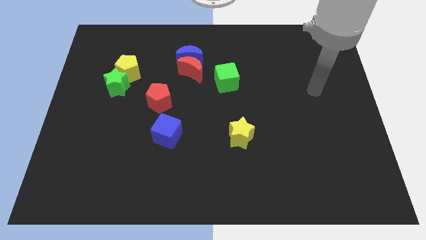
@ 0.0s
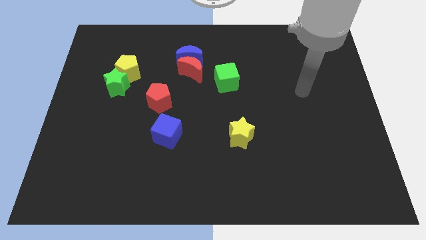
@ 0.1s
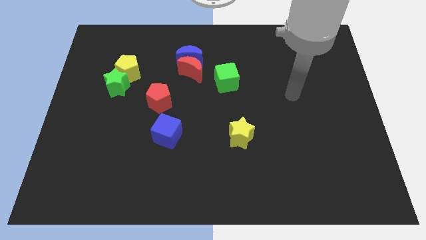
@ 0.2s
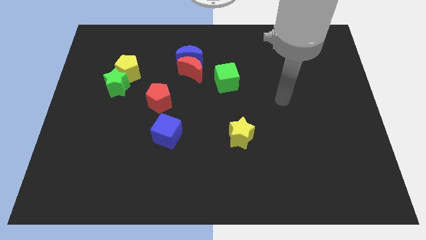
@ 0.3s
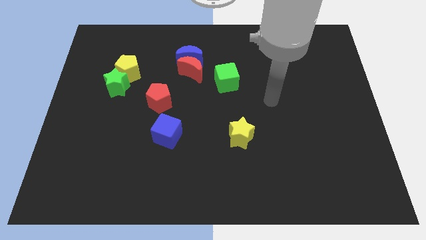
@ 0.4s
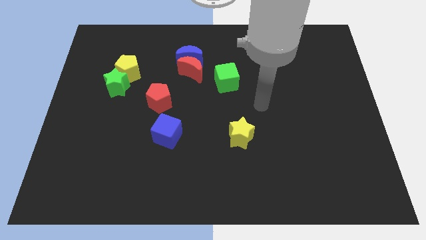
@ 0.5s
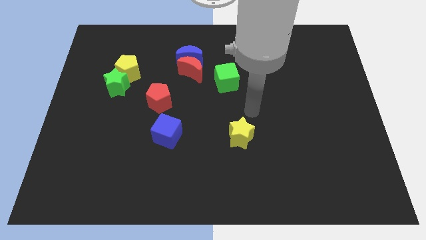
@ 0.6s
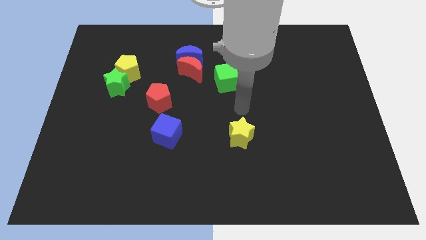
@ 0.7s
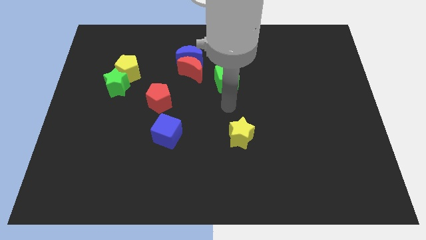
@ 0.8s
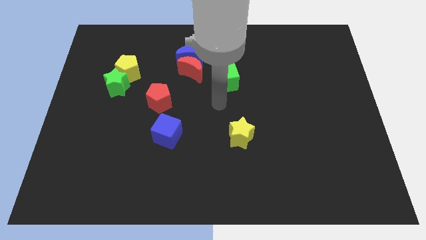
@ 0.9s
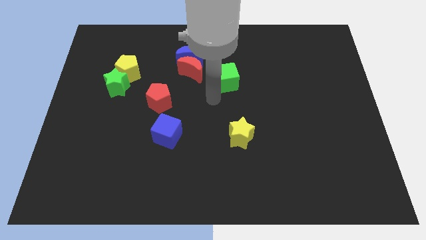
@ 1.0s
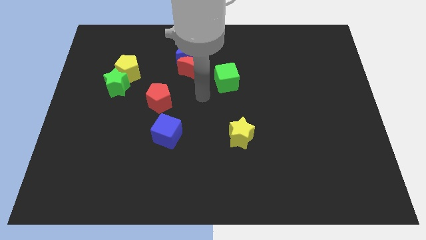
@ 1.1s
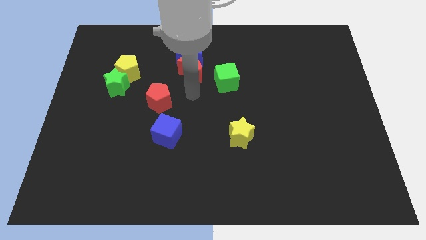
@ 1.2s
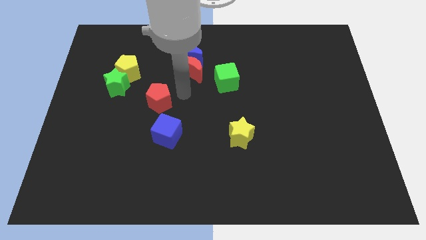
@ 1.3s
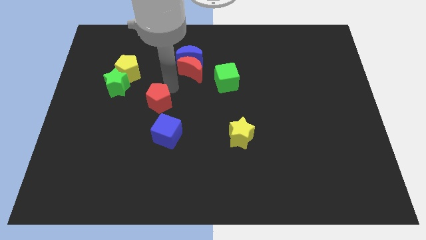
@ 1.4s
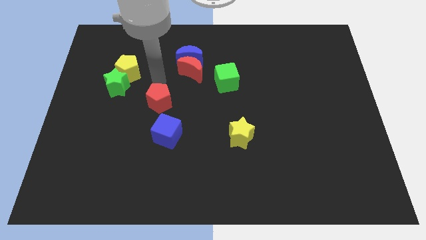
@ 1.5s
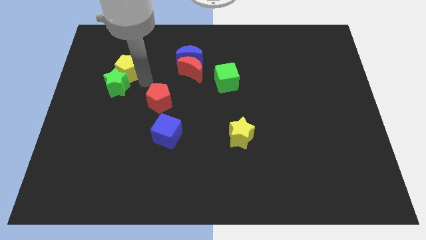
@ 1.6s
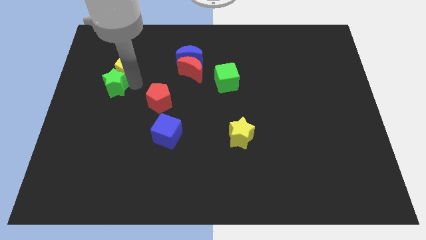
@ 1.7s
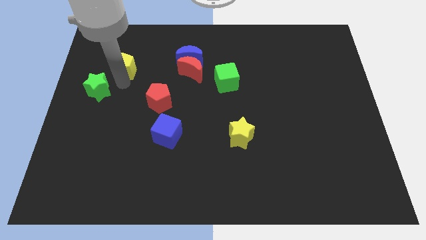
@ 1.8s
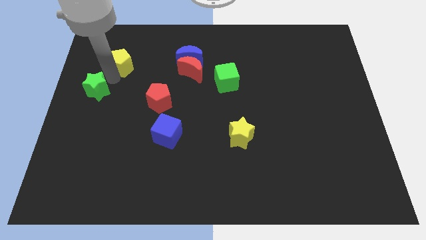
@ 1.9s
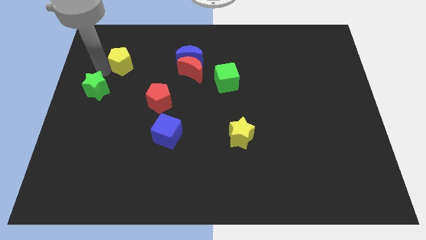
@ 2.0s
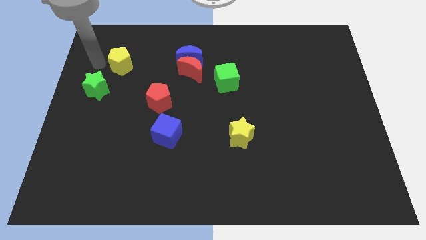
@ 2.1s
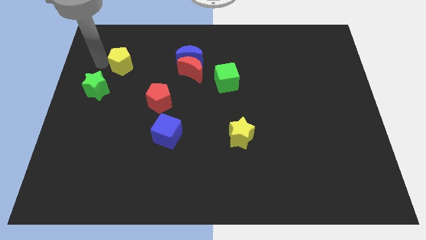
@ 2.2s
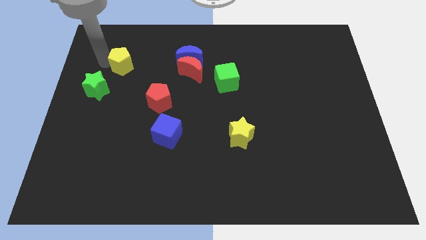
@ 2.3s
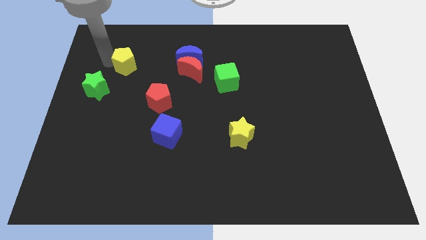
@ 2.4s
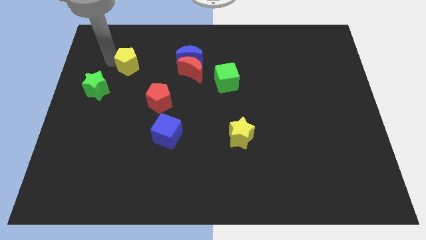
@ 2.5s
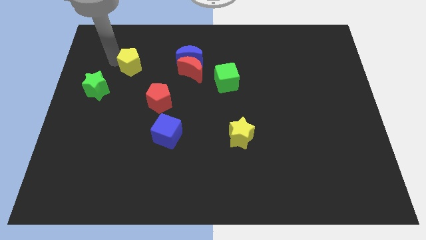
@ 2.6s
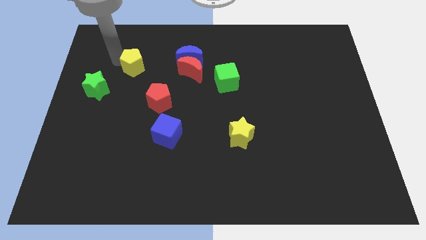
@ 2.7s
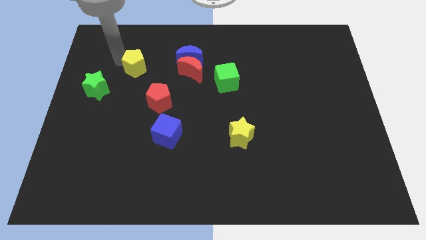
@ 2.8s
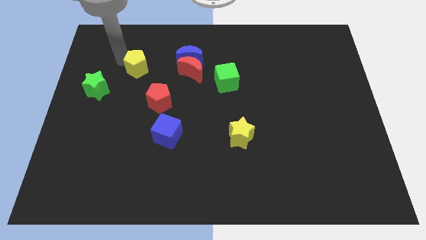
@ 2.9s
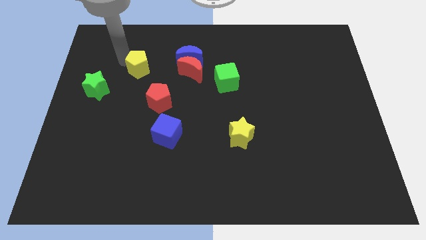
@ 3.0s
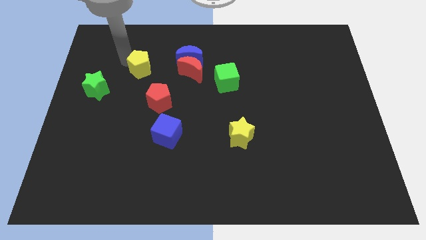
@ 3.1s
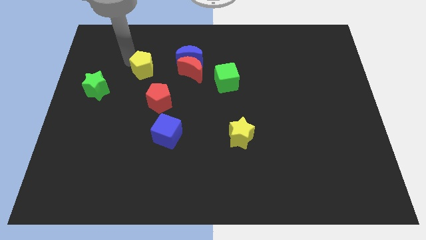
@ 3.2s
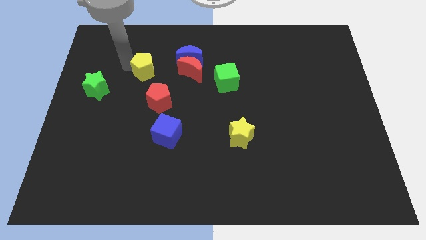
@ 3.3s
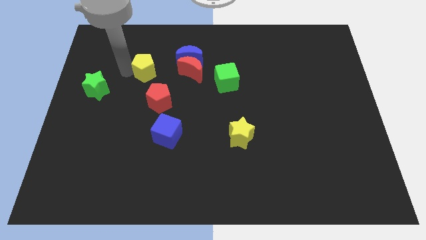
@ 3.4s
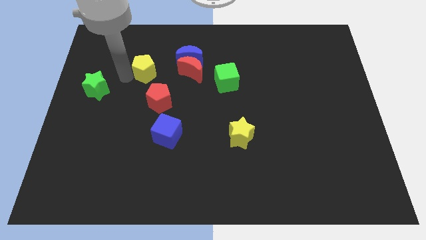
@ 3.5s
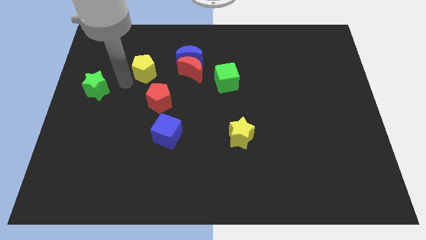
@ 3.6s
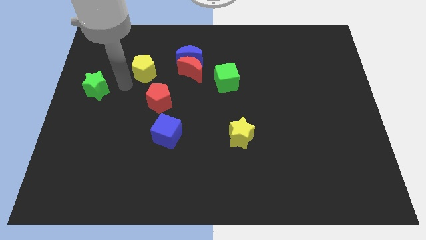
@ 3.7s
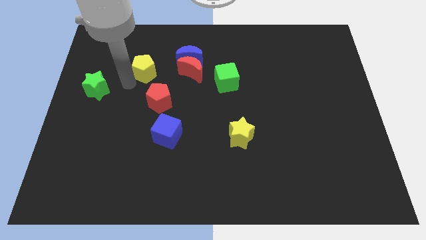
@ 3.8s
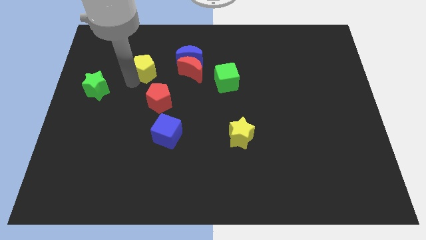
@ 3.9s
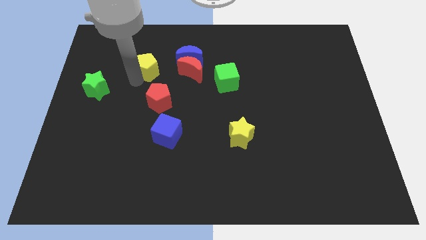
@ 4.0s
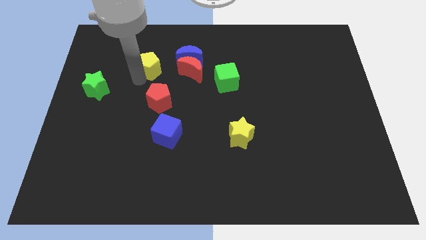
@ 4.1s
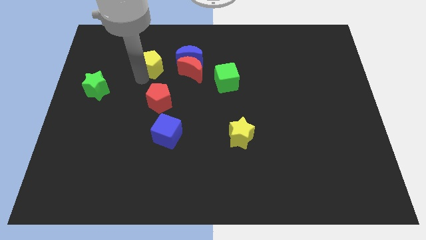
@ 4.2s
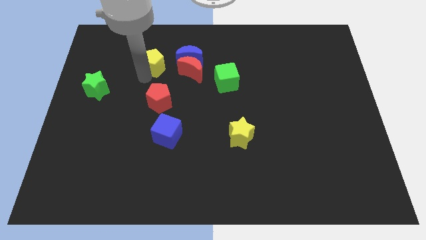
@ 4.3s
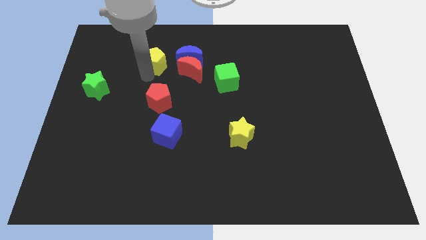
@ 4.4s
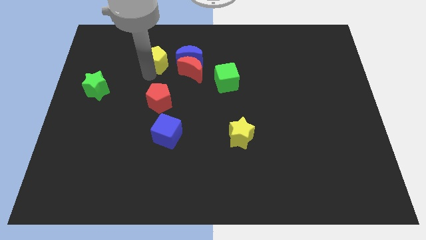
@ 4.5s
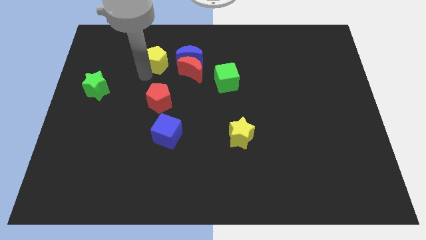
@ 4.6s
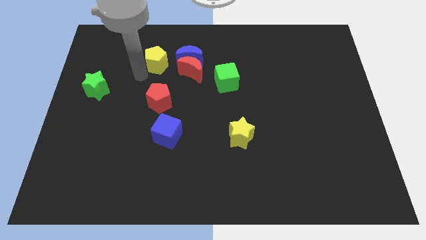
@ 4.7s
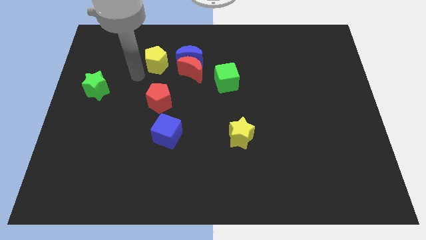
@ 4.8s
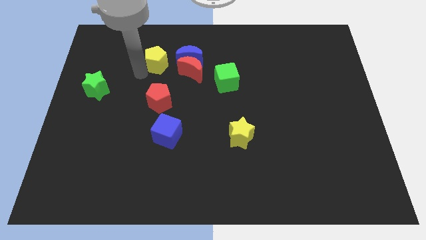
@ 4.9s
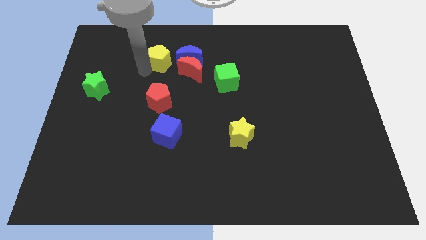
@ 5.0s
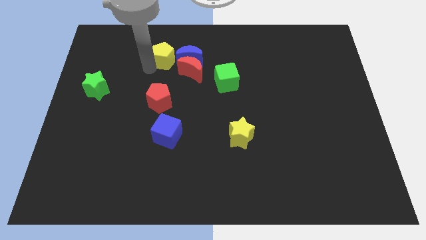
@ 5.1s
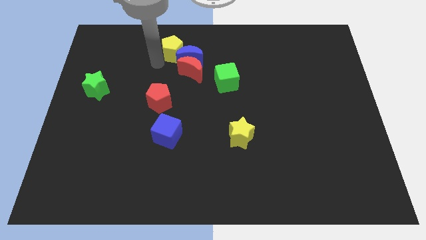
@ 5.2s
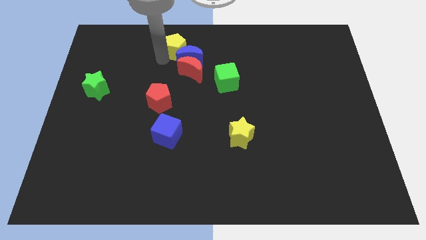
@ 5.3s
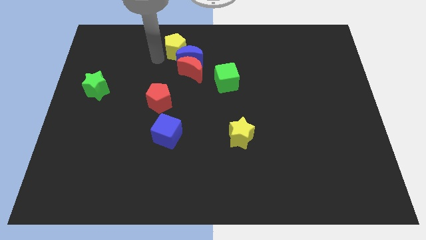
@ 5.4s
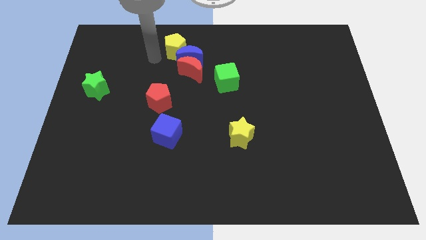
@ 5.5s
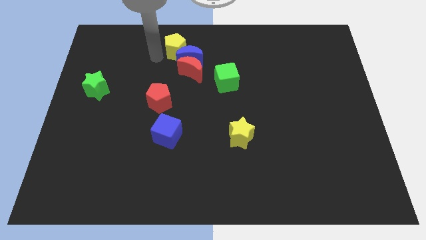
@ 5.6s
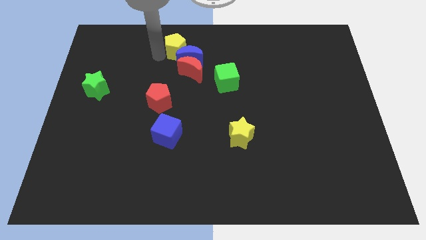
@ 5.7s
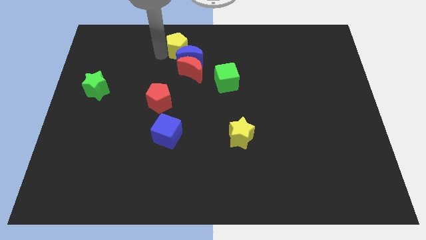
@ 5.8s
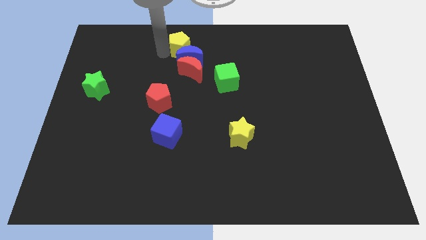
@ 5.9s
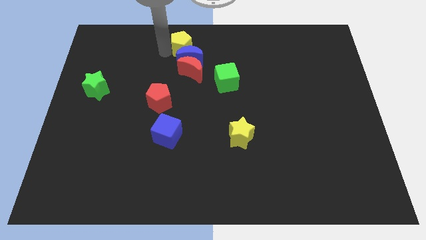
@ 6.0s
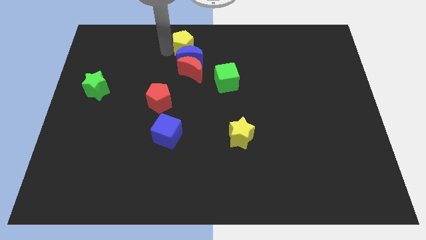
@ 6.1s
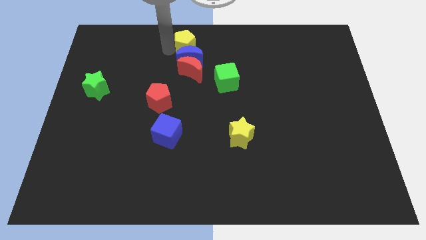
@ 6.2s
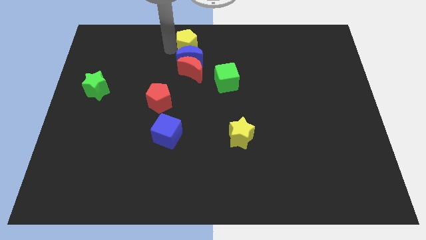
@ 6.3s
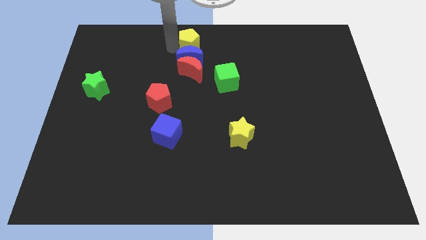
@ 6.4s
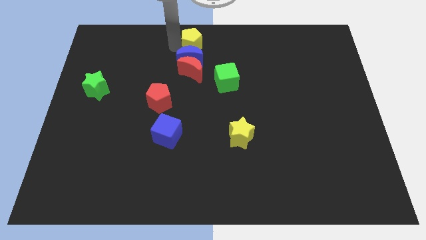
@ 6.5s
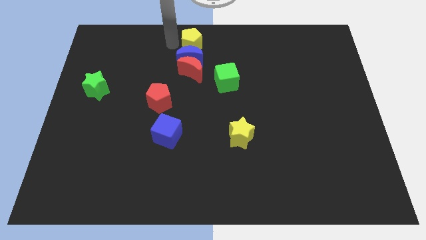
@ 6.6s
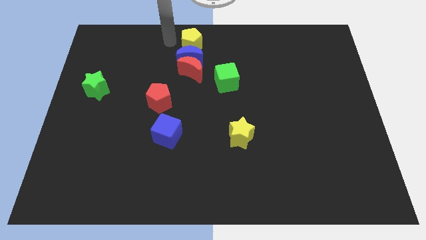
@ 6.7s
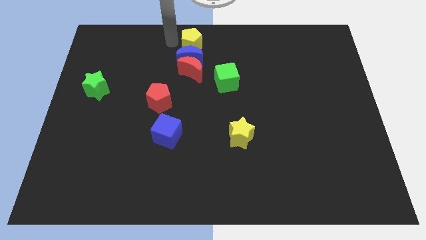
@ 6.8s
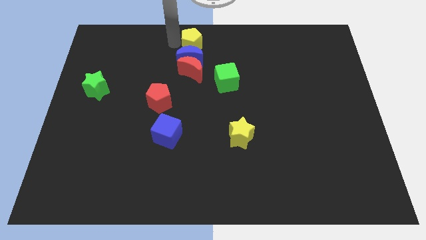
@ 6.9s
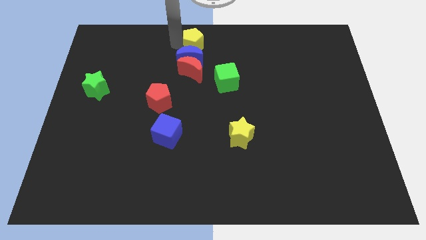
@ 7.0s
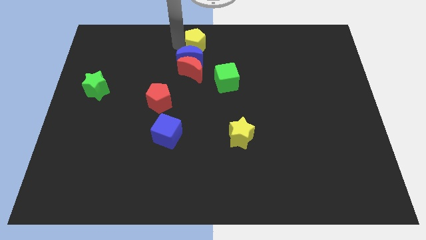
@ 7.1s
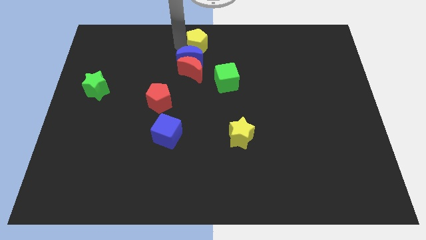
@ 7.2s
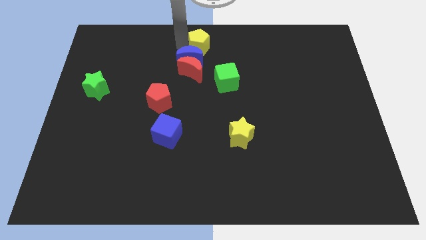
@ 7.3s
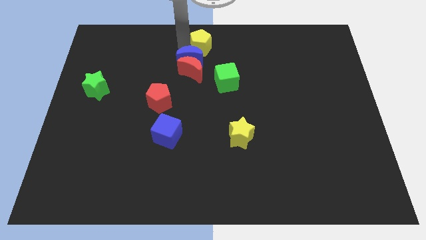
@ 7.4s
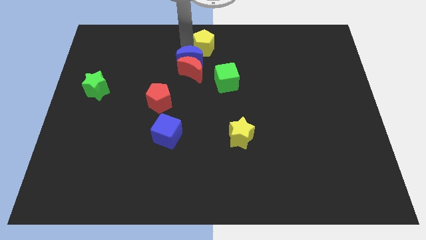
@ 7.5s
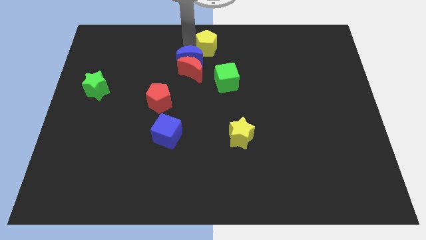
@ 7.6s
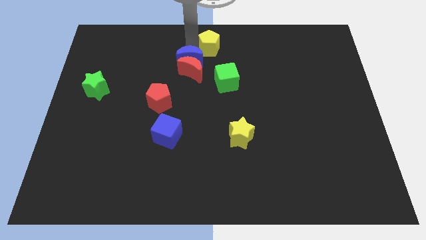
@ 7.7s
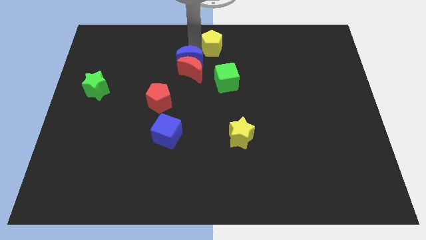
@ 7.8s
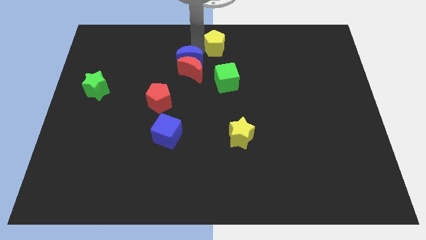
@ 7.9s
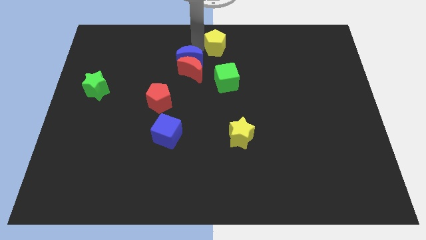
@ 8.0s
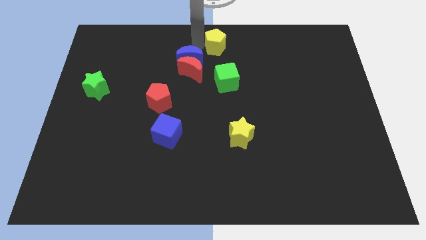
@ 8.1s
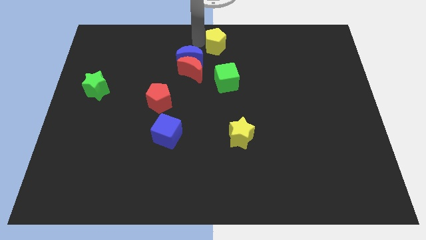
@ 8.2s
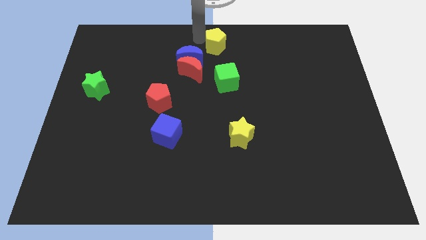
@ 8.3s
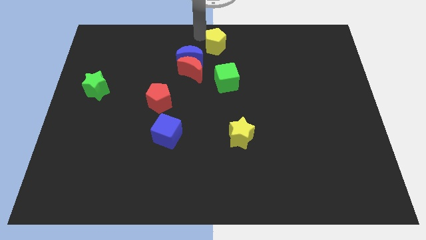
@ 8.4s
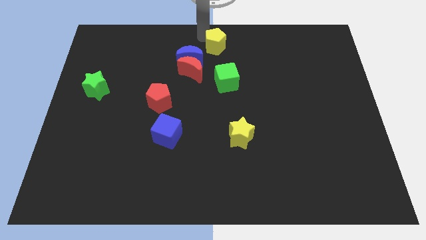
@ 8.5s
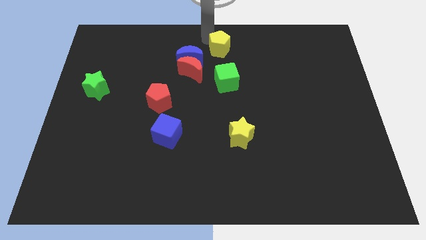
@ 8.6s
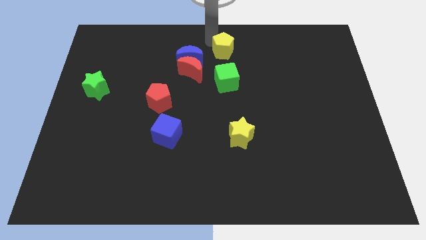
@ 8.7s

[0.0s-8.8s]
push the yellow pentagon right

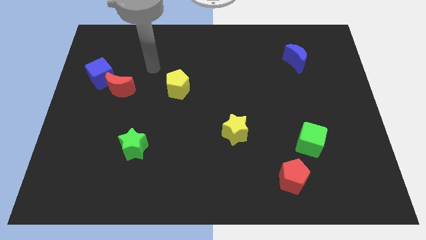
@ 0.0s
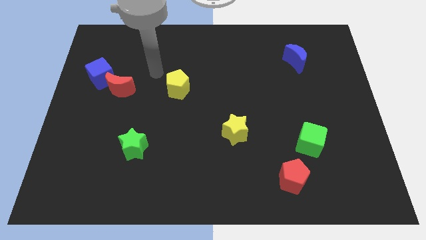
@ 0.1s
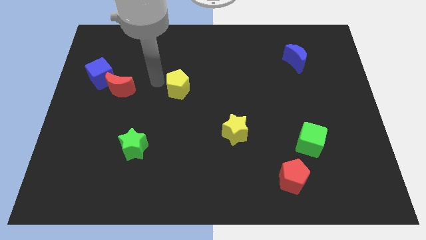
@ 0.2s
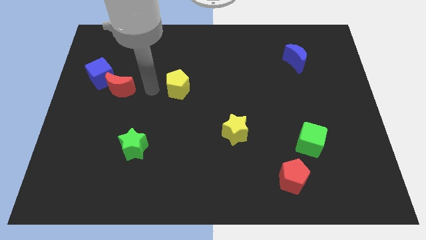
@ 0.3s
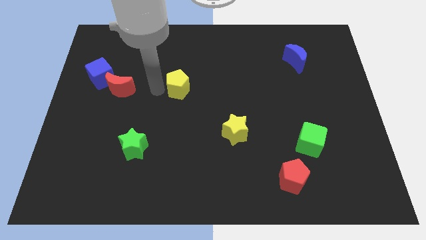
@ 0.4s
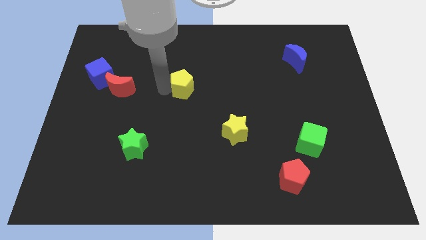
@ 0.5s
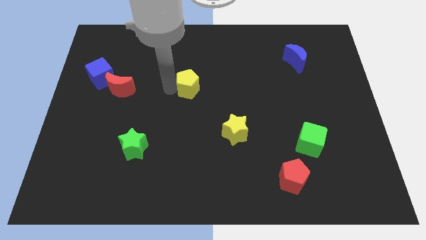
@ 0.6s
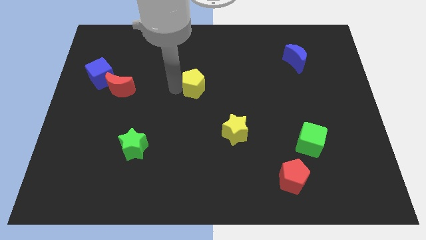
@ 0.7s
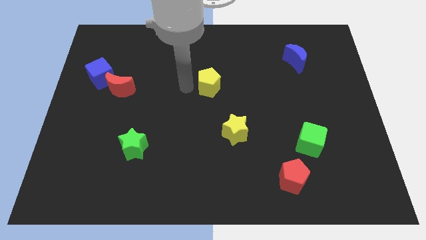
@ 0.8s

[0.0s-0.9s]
push the yellow pentagon to the right a little
